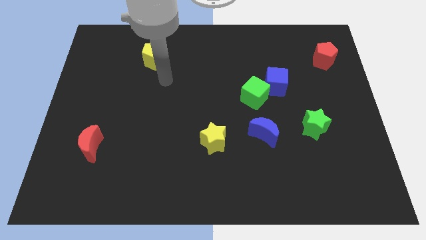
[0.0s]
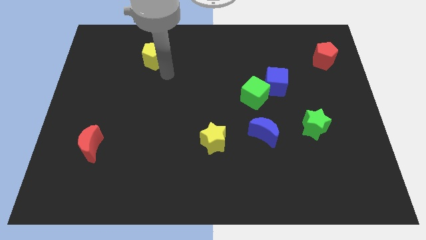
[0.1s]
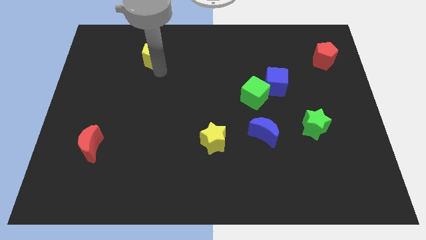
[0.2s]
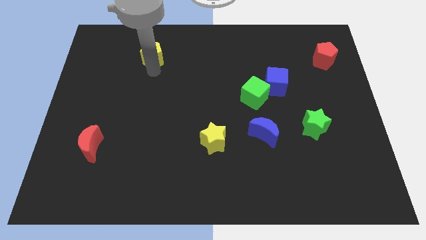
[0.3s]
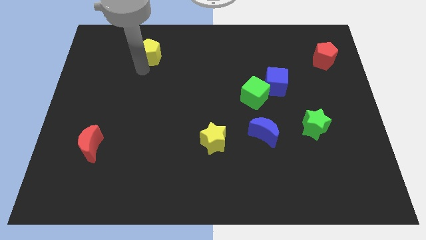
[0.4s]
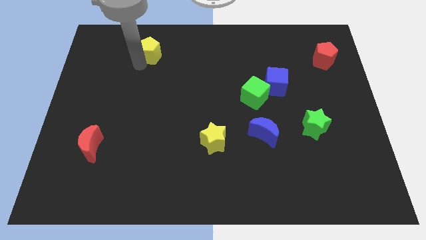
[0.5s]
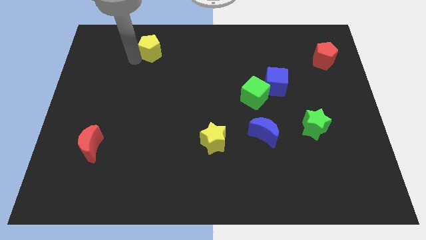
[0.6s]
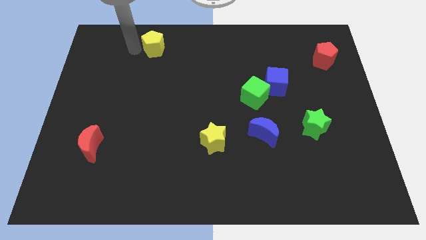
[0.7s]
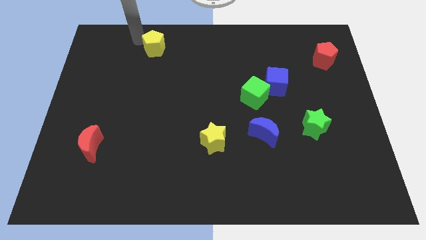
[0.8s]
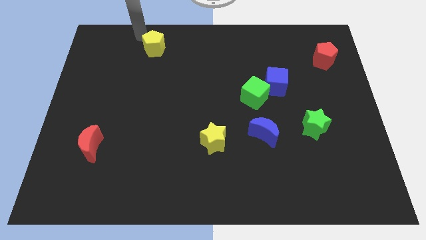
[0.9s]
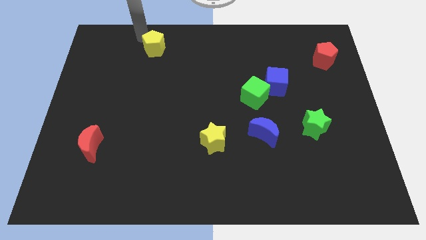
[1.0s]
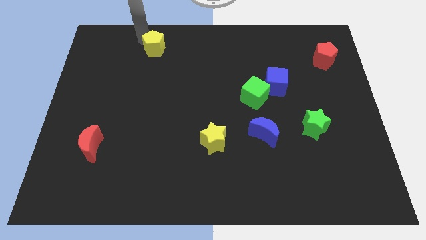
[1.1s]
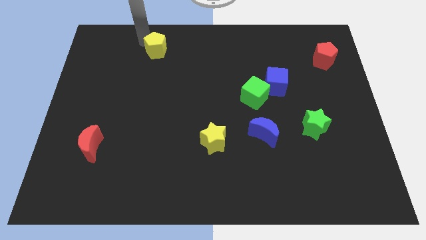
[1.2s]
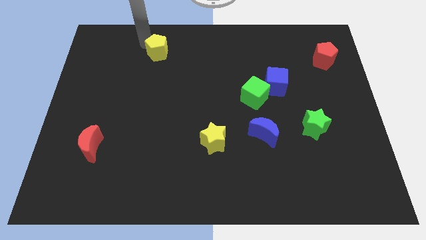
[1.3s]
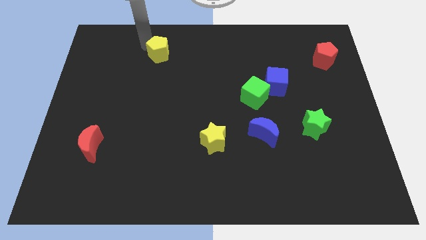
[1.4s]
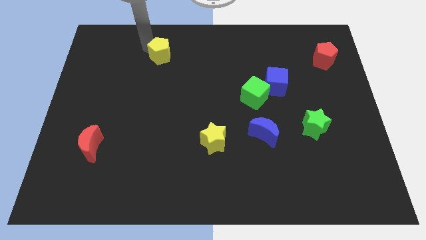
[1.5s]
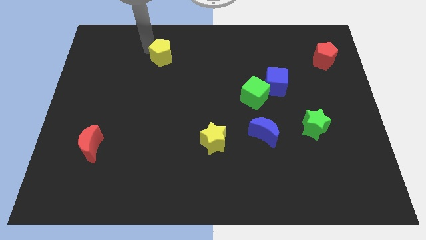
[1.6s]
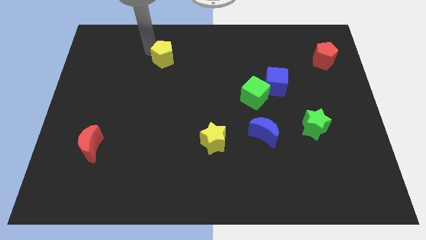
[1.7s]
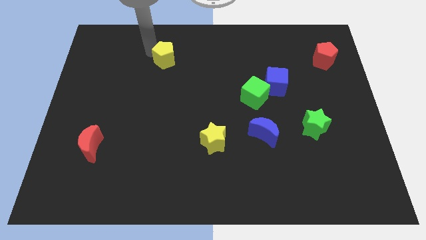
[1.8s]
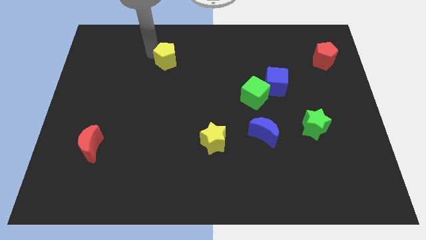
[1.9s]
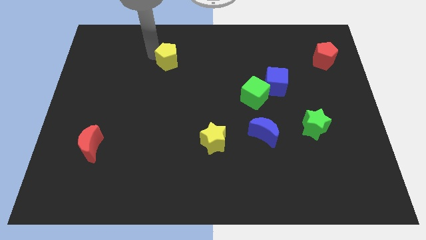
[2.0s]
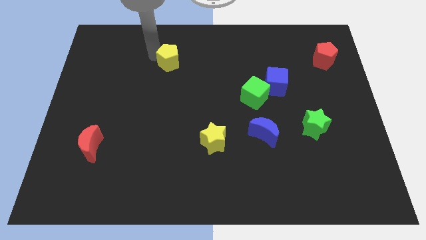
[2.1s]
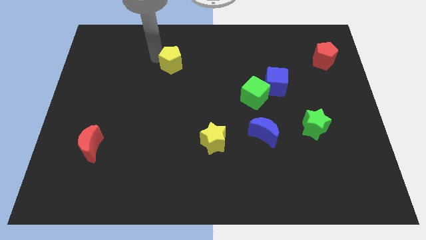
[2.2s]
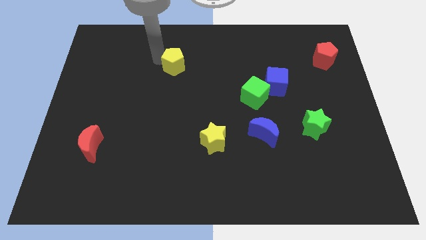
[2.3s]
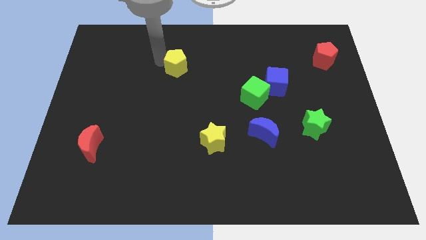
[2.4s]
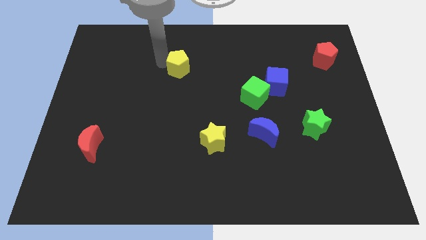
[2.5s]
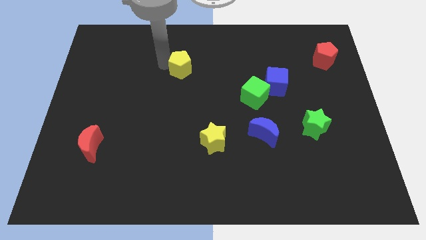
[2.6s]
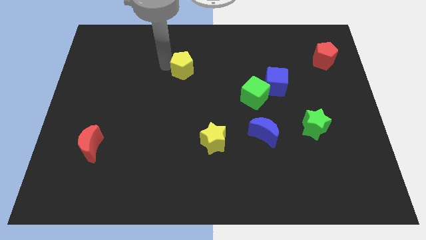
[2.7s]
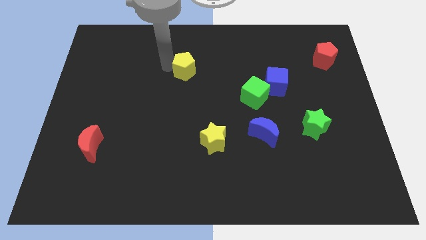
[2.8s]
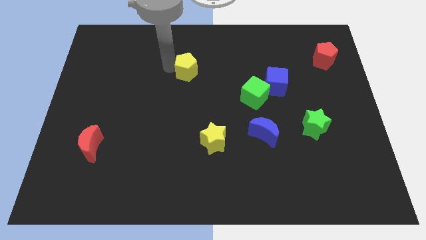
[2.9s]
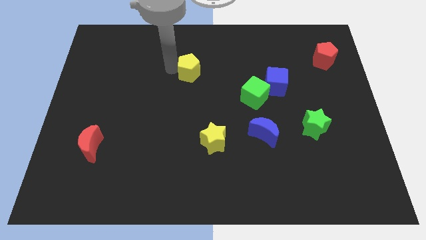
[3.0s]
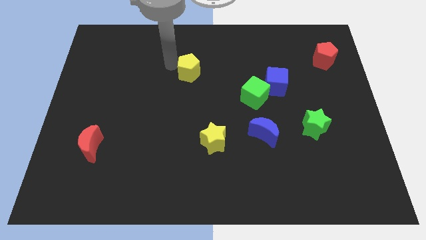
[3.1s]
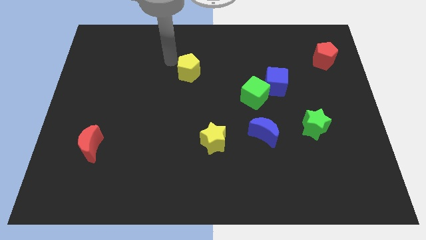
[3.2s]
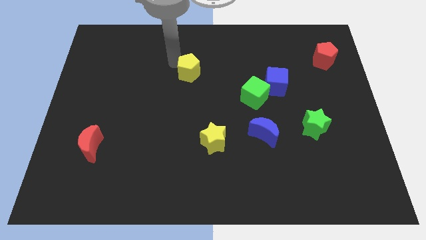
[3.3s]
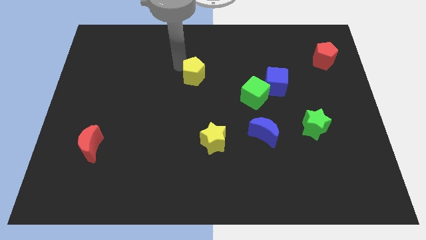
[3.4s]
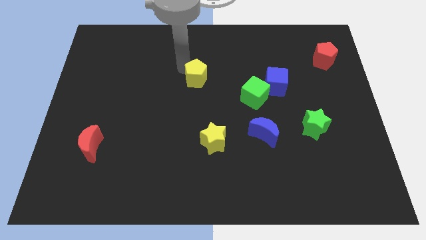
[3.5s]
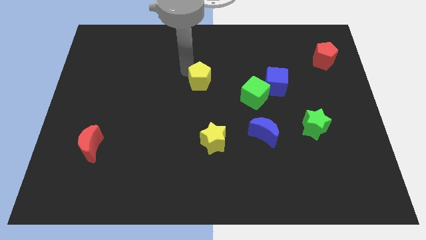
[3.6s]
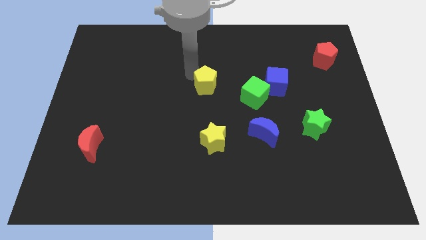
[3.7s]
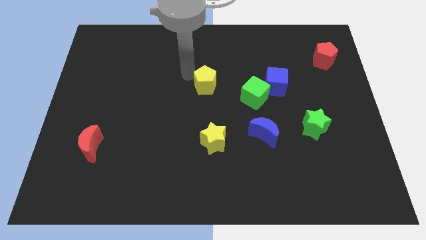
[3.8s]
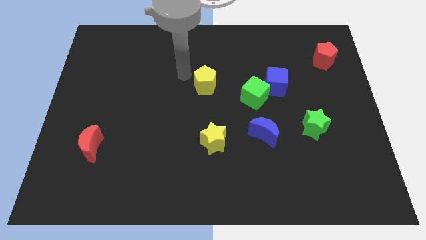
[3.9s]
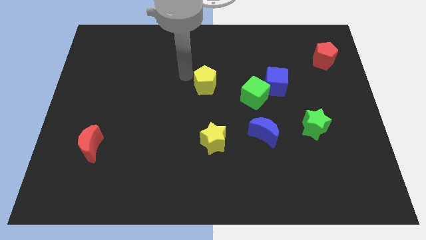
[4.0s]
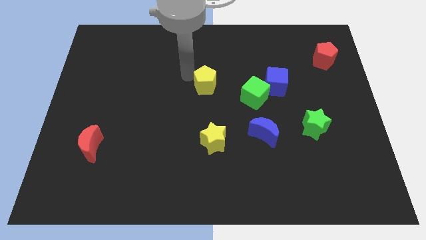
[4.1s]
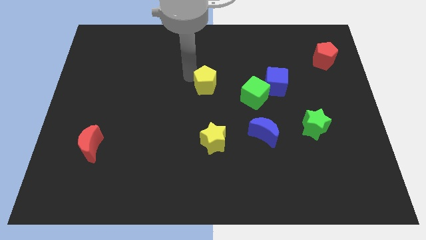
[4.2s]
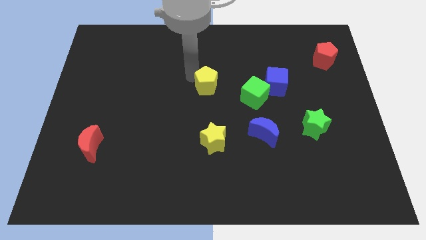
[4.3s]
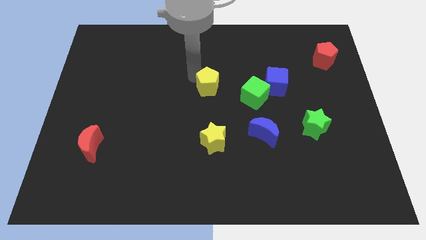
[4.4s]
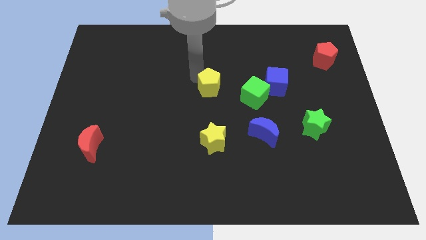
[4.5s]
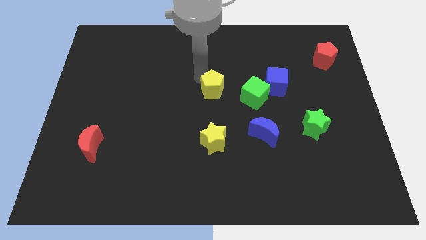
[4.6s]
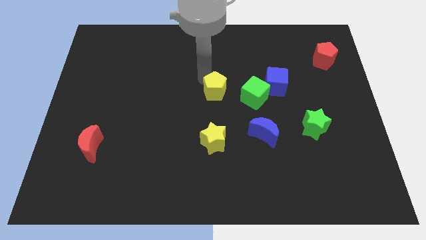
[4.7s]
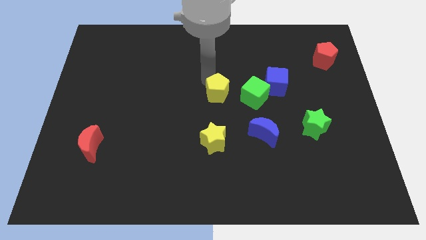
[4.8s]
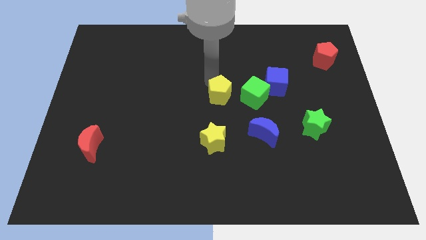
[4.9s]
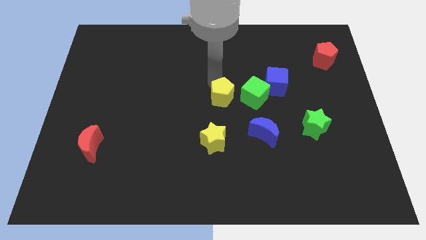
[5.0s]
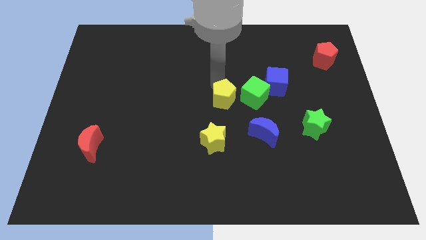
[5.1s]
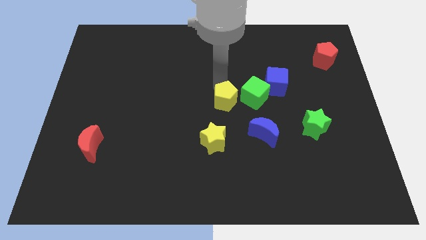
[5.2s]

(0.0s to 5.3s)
move the yellow pentagon to the top left of the blue moon

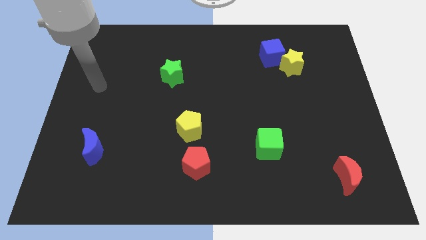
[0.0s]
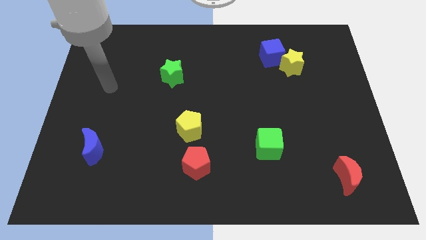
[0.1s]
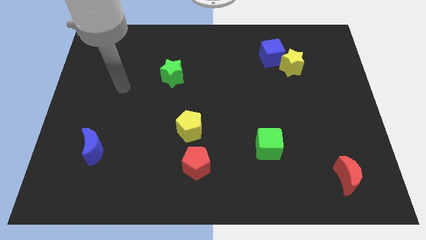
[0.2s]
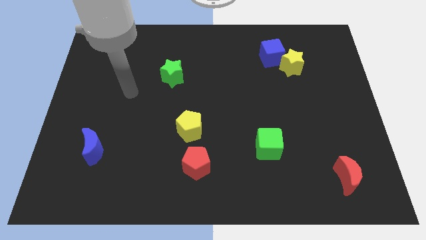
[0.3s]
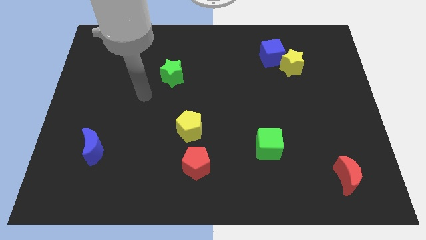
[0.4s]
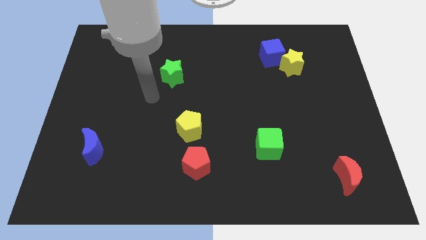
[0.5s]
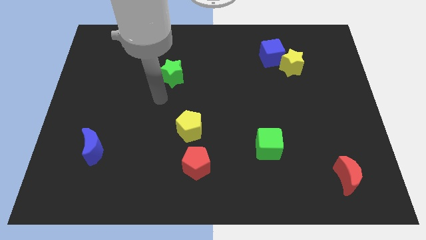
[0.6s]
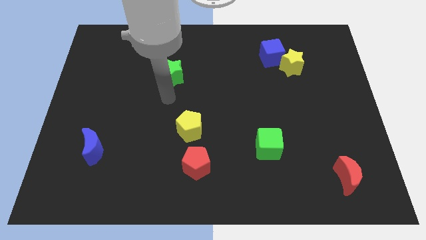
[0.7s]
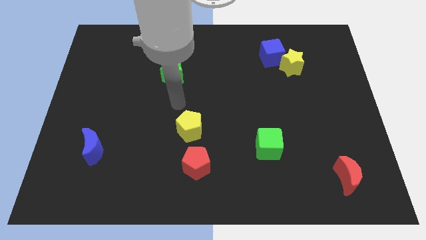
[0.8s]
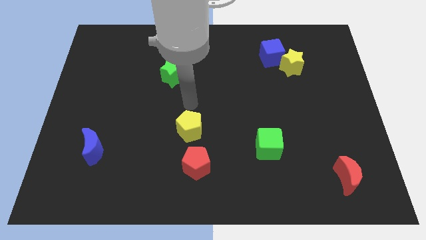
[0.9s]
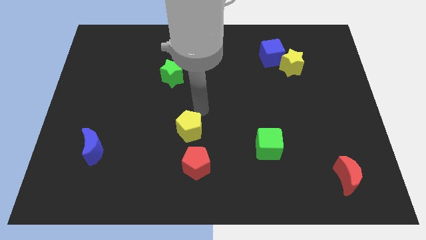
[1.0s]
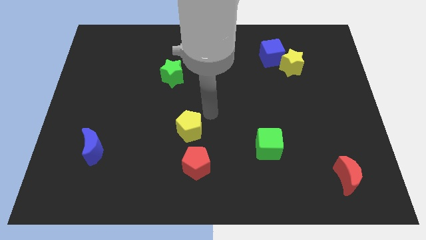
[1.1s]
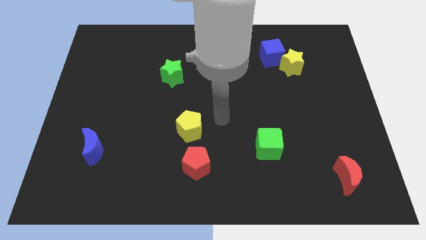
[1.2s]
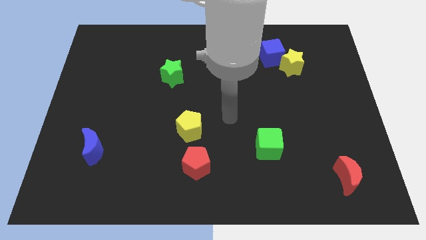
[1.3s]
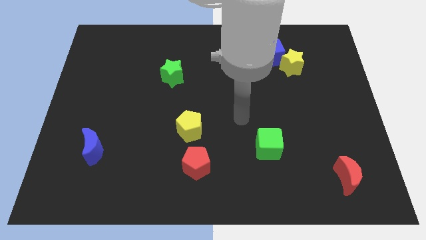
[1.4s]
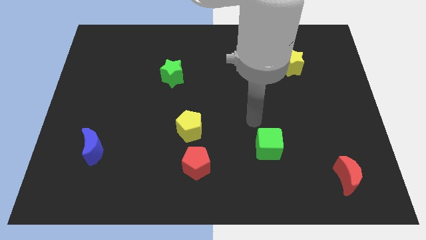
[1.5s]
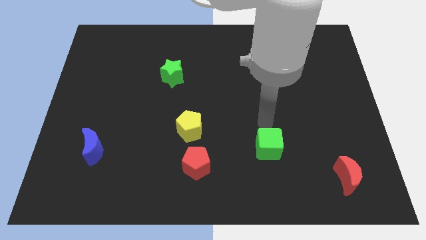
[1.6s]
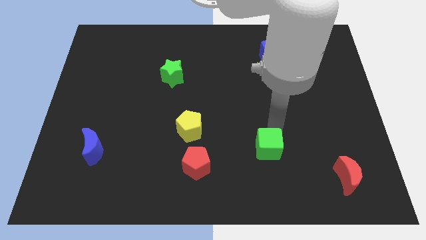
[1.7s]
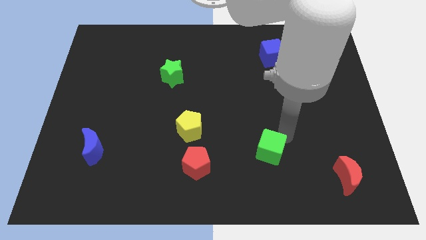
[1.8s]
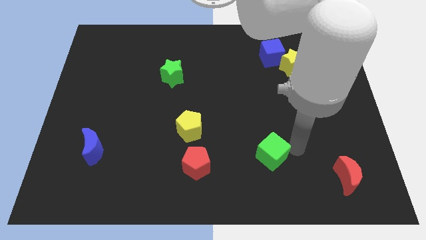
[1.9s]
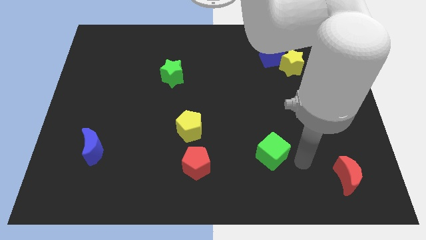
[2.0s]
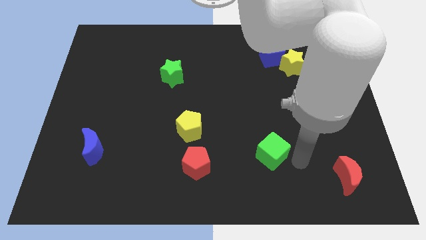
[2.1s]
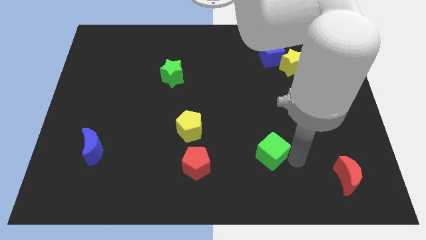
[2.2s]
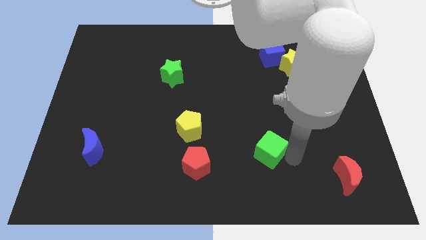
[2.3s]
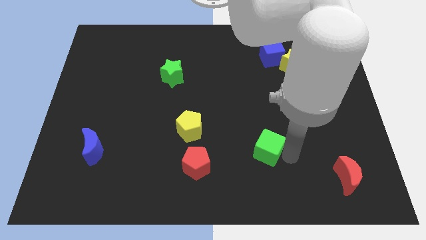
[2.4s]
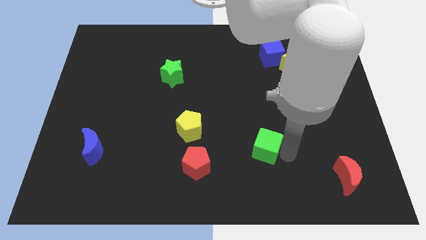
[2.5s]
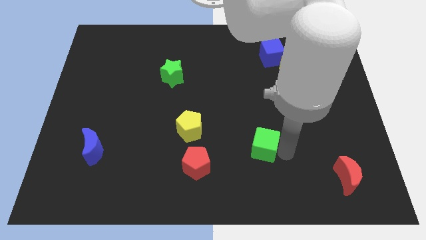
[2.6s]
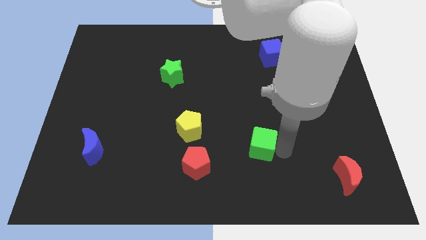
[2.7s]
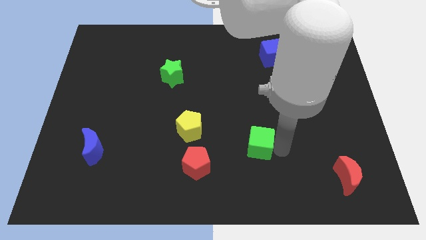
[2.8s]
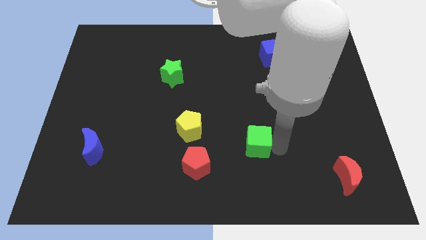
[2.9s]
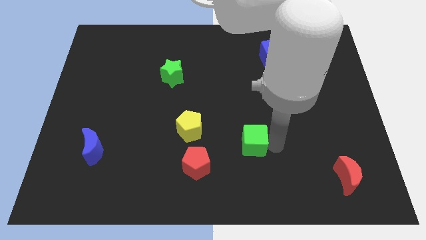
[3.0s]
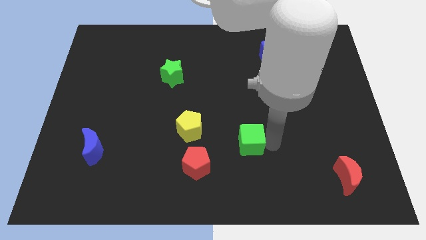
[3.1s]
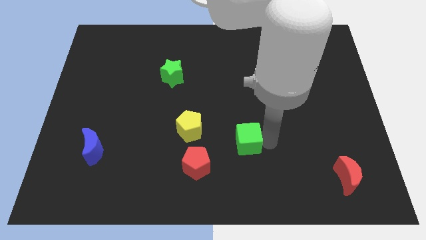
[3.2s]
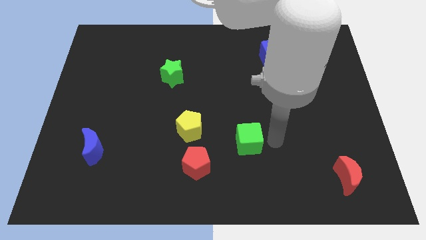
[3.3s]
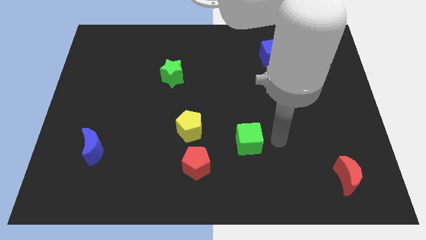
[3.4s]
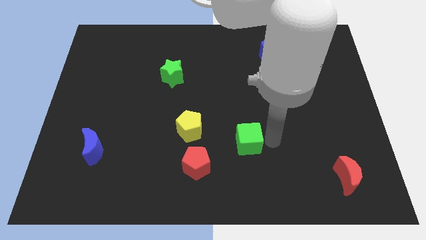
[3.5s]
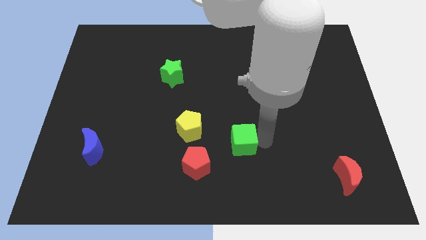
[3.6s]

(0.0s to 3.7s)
move the green cube to the top right side of the red pentagon
